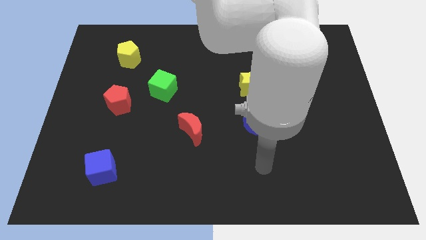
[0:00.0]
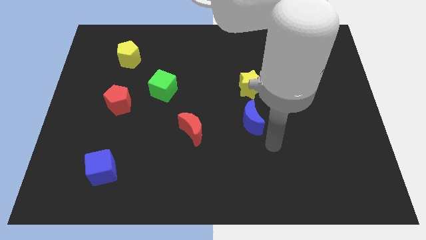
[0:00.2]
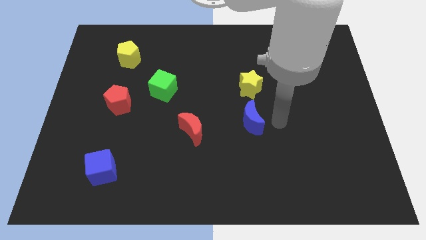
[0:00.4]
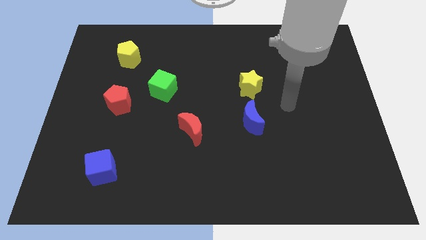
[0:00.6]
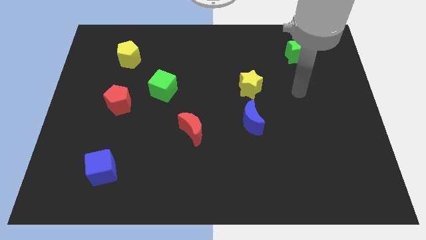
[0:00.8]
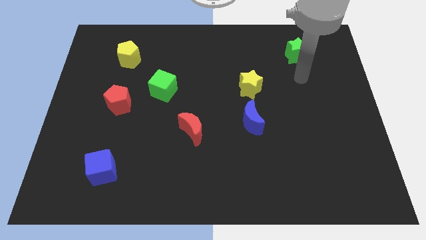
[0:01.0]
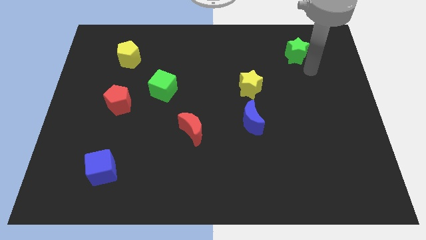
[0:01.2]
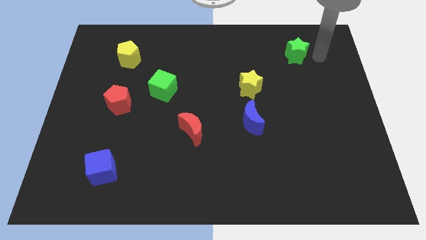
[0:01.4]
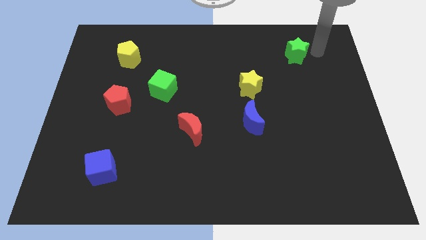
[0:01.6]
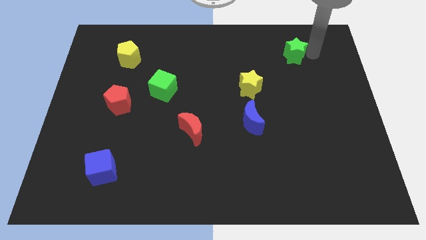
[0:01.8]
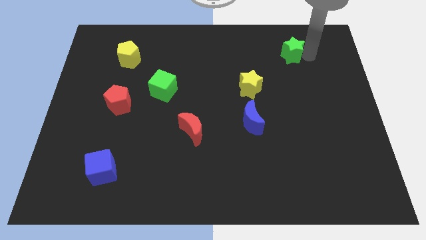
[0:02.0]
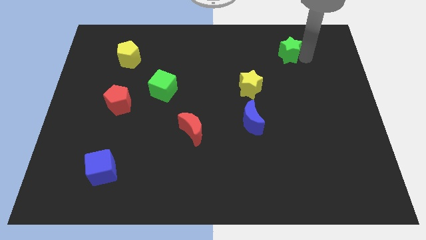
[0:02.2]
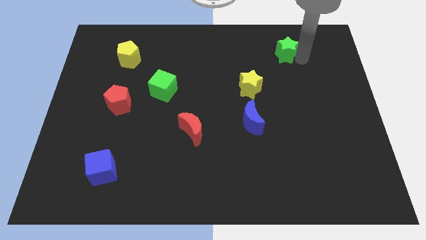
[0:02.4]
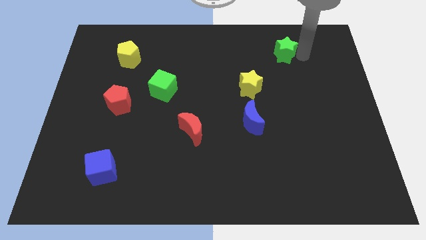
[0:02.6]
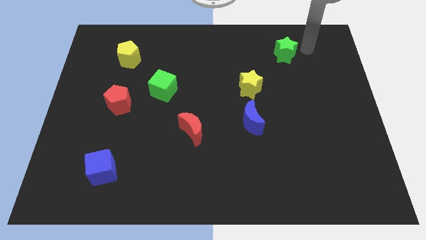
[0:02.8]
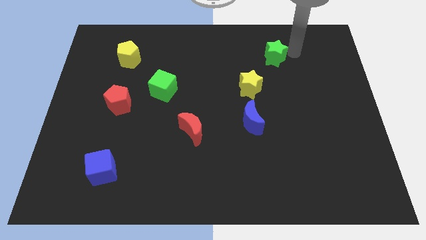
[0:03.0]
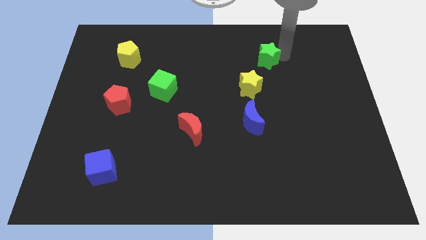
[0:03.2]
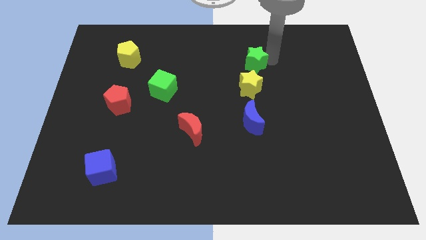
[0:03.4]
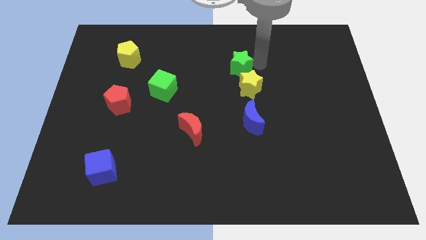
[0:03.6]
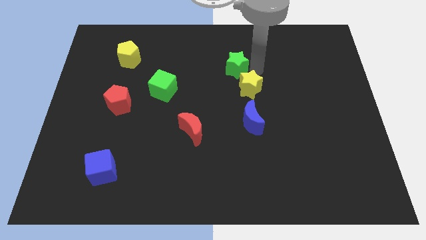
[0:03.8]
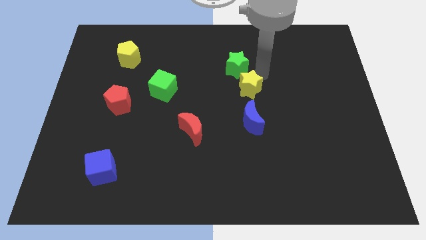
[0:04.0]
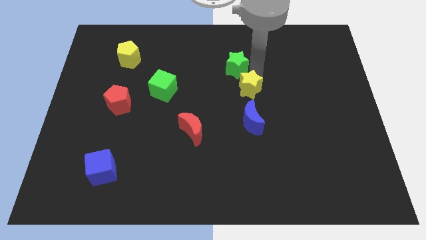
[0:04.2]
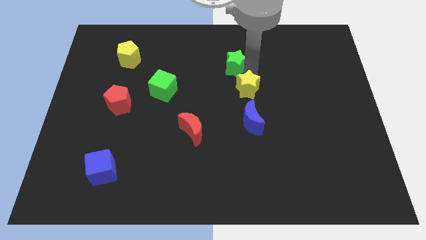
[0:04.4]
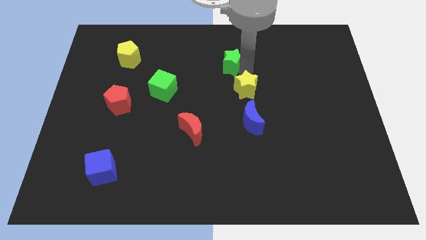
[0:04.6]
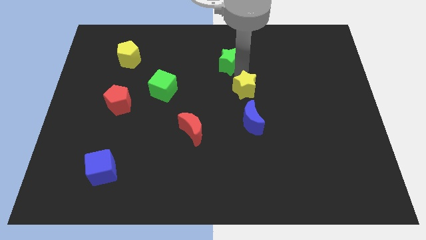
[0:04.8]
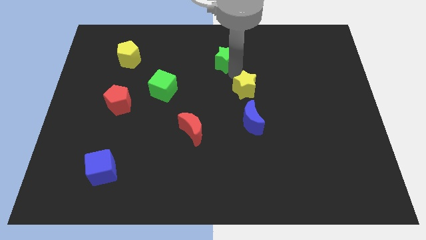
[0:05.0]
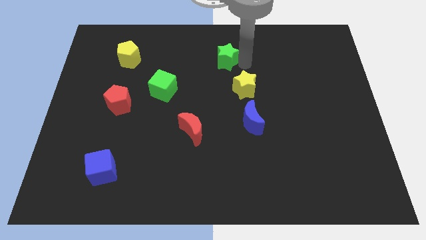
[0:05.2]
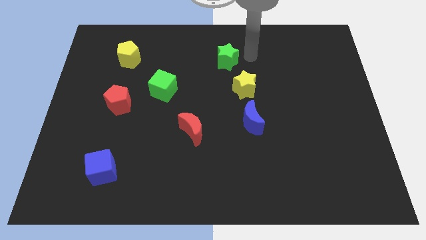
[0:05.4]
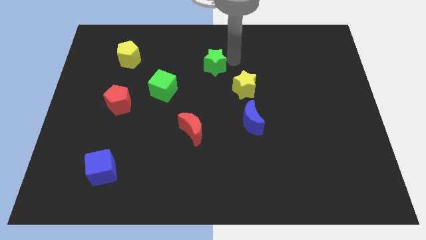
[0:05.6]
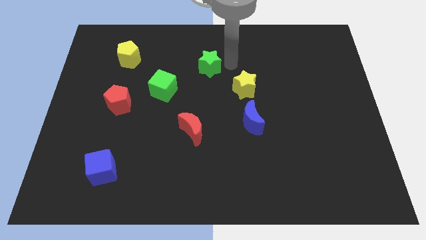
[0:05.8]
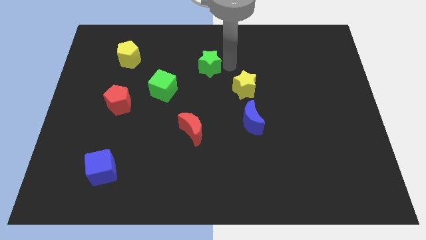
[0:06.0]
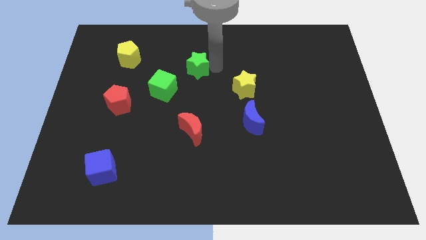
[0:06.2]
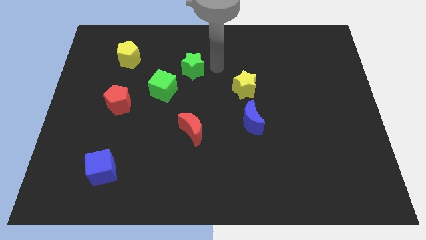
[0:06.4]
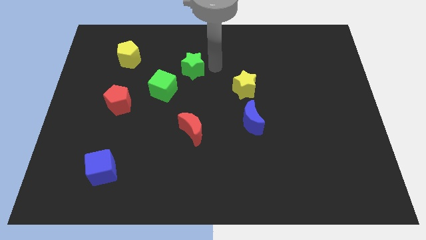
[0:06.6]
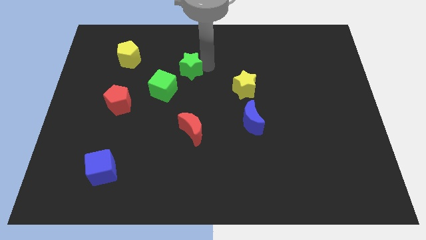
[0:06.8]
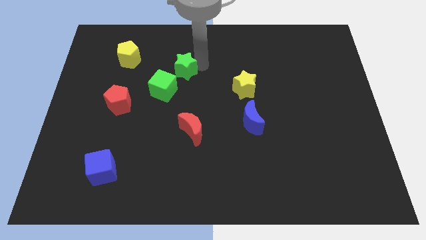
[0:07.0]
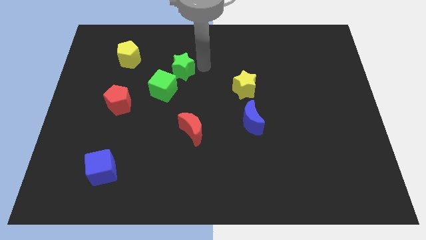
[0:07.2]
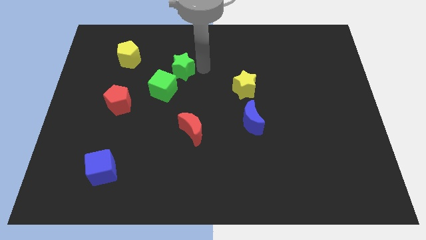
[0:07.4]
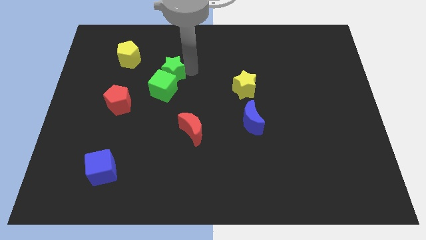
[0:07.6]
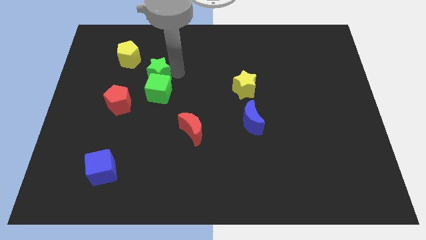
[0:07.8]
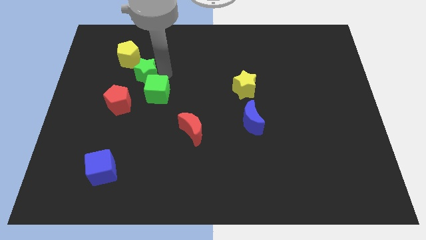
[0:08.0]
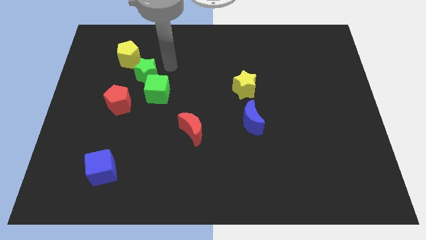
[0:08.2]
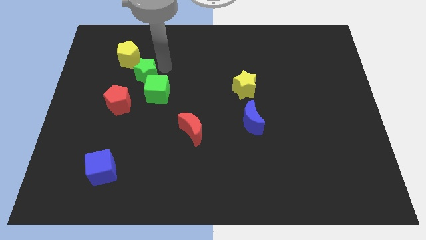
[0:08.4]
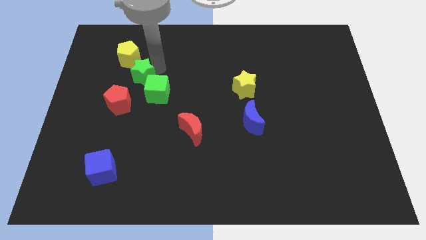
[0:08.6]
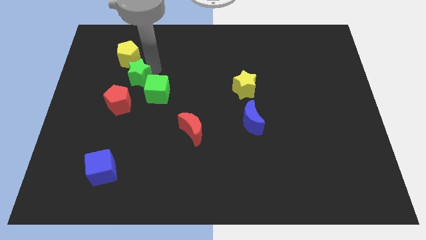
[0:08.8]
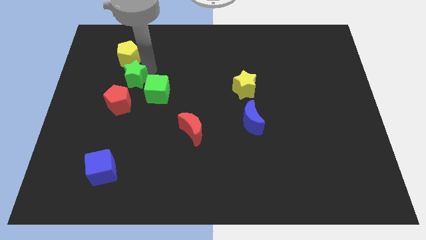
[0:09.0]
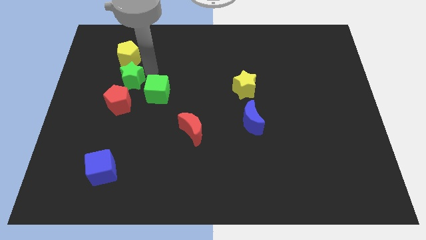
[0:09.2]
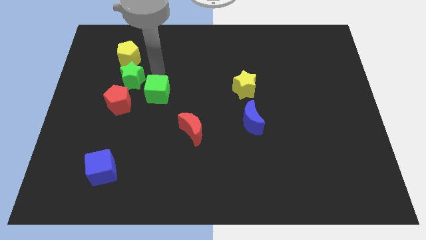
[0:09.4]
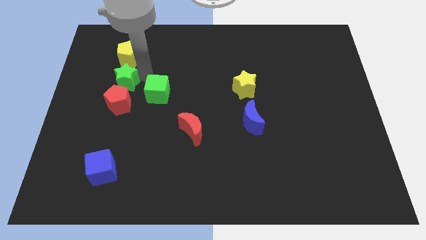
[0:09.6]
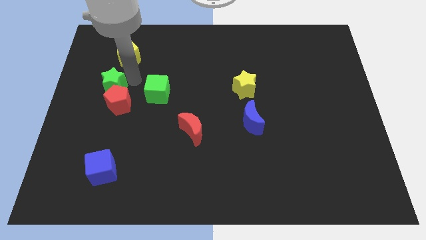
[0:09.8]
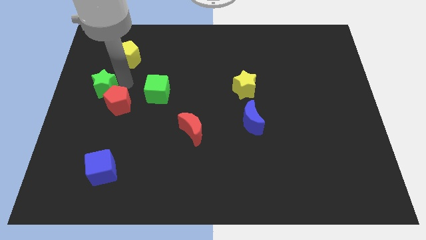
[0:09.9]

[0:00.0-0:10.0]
slide the green star to the left side of the board

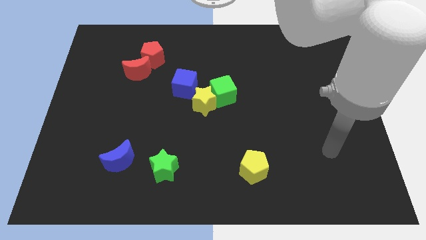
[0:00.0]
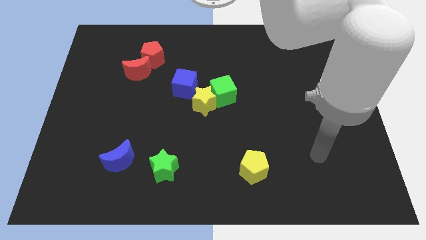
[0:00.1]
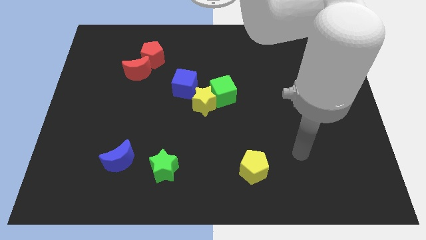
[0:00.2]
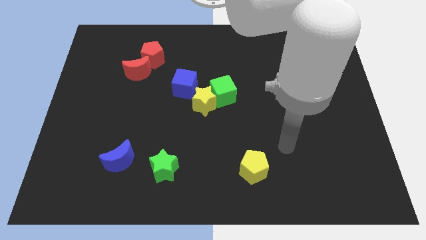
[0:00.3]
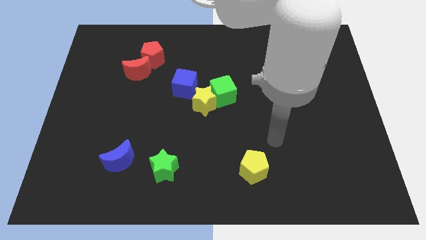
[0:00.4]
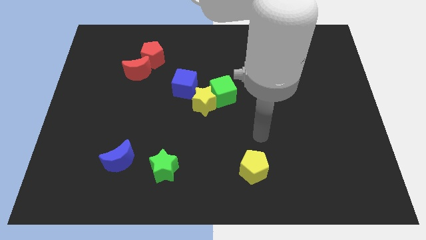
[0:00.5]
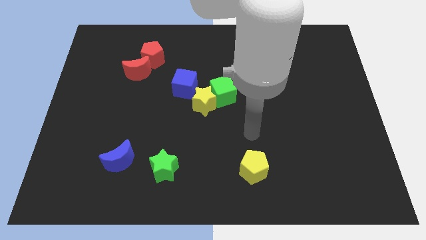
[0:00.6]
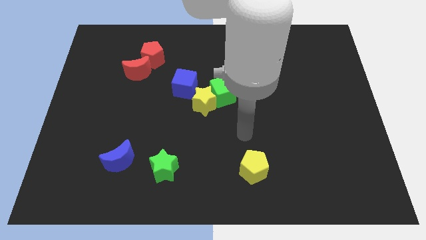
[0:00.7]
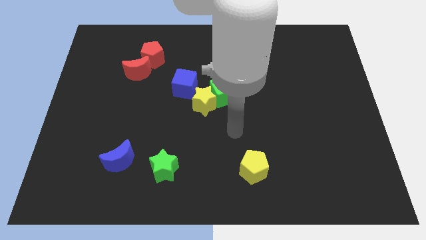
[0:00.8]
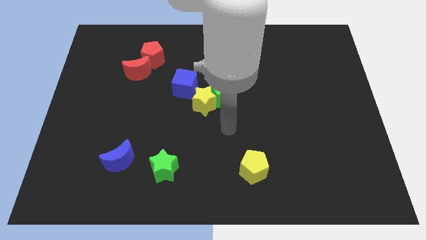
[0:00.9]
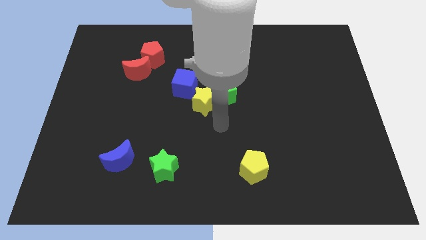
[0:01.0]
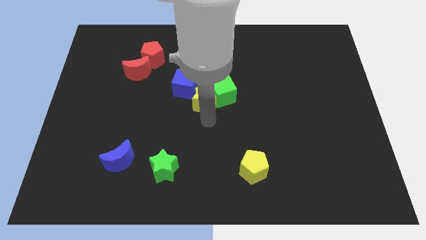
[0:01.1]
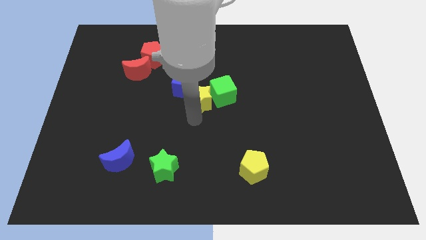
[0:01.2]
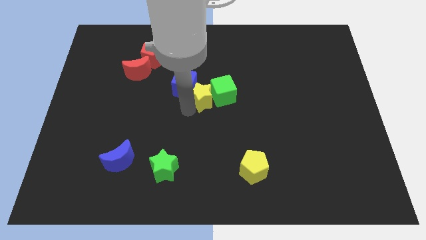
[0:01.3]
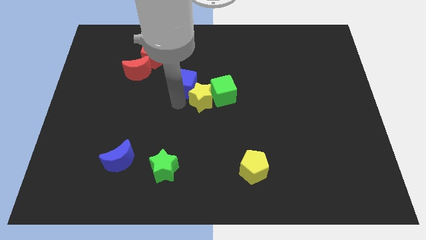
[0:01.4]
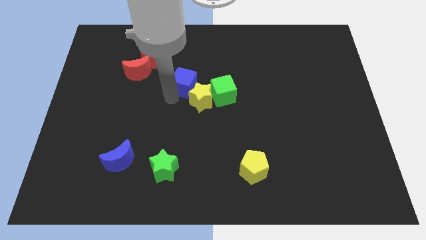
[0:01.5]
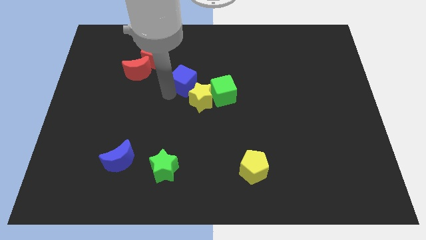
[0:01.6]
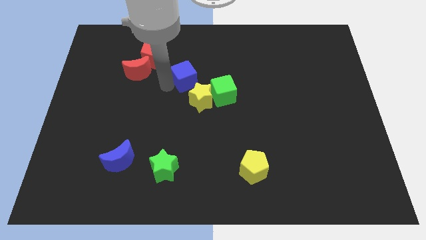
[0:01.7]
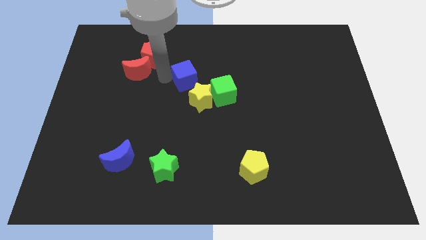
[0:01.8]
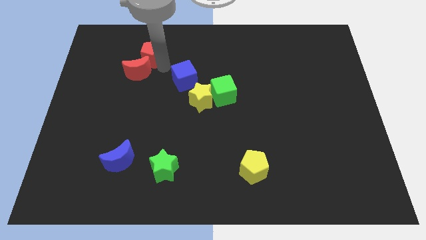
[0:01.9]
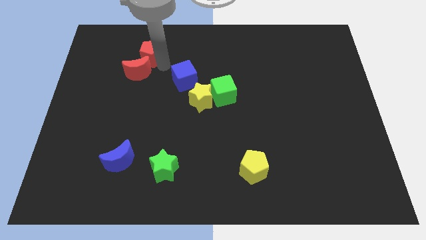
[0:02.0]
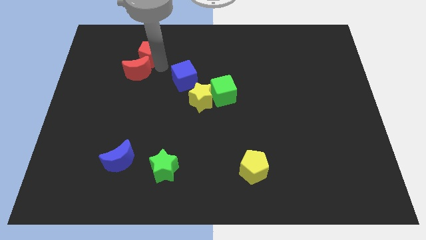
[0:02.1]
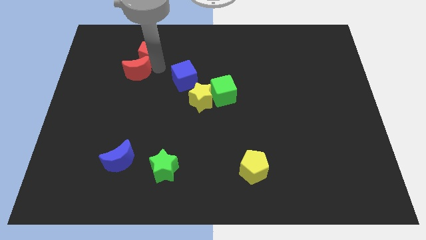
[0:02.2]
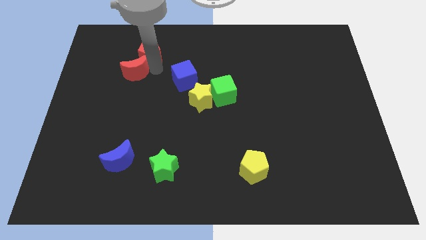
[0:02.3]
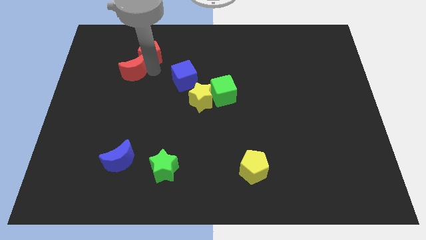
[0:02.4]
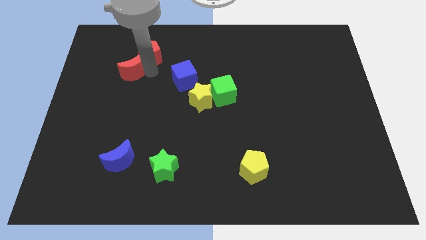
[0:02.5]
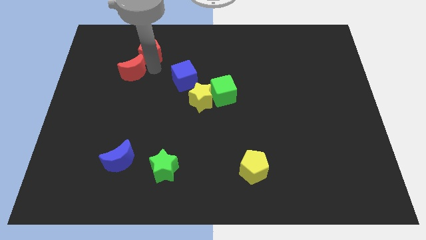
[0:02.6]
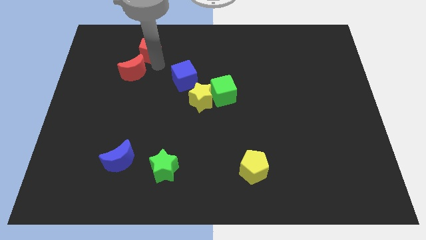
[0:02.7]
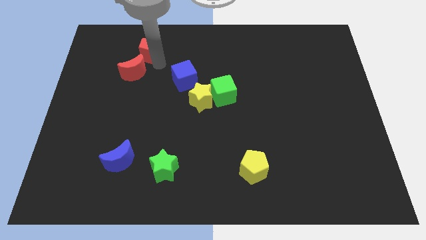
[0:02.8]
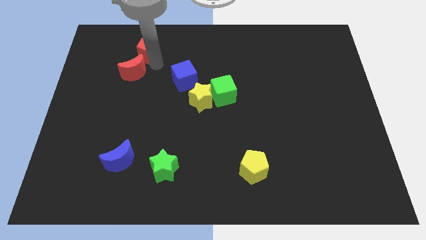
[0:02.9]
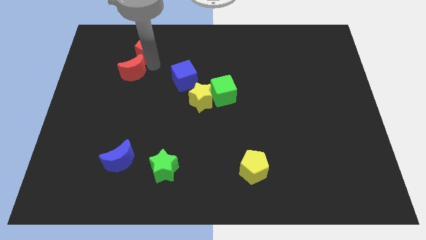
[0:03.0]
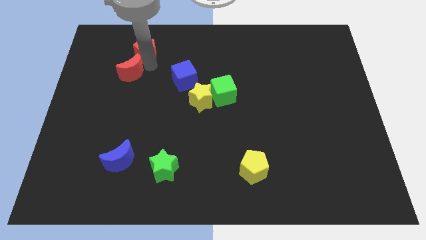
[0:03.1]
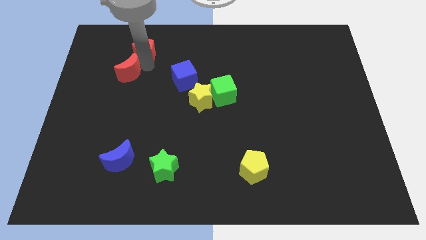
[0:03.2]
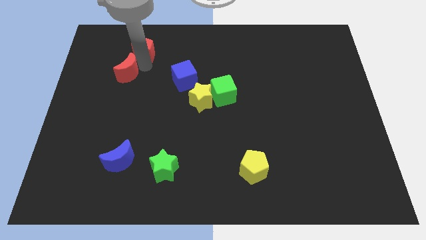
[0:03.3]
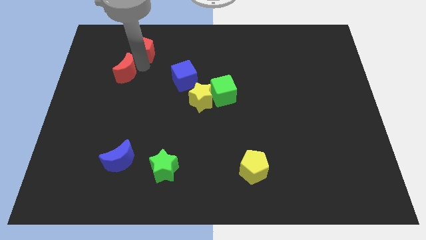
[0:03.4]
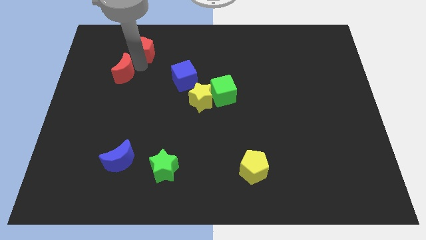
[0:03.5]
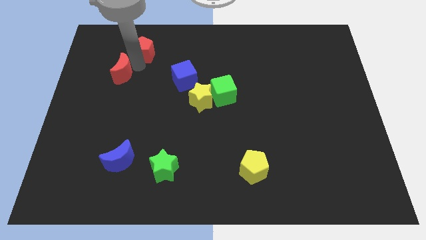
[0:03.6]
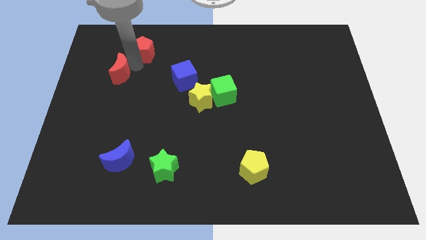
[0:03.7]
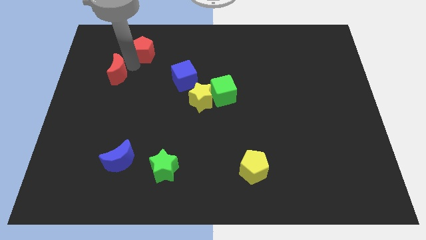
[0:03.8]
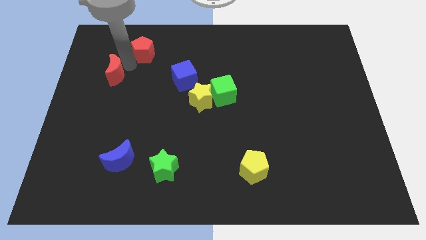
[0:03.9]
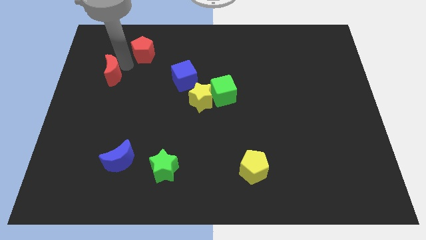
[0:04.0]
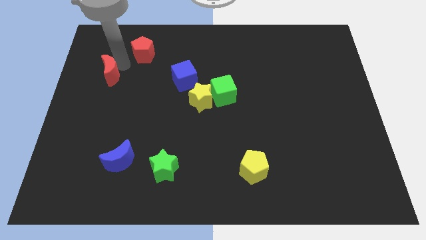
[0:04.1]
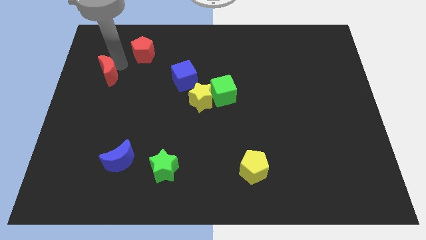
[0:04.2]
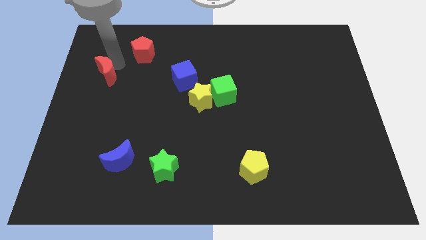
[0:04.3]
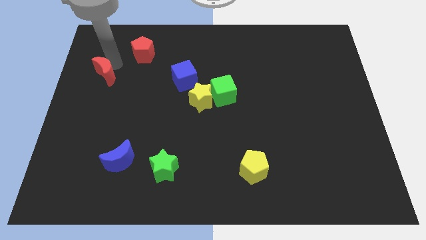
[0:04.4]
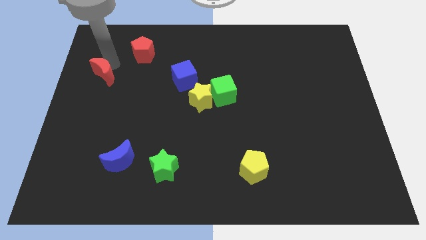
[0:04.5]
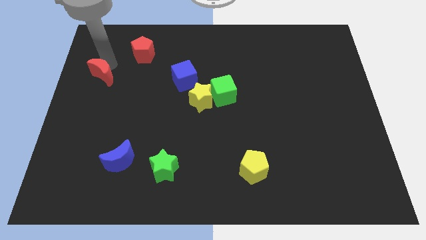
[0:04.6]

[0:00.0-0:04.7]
slide the red moon to the center left
